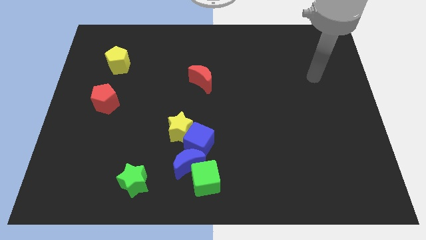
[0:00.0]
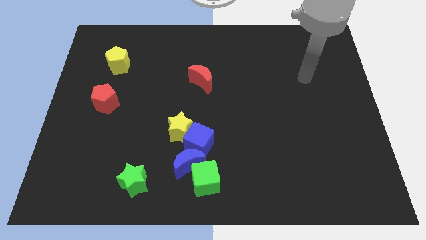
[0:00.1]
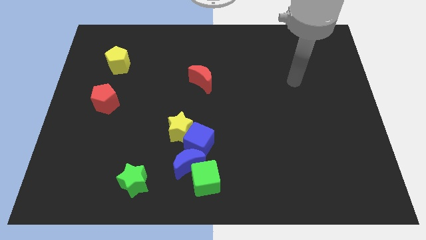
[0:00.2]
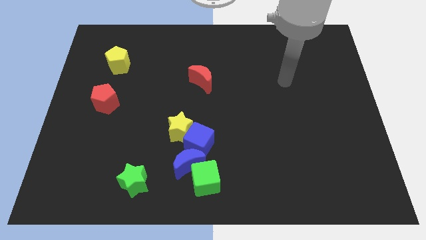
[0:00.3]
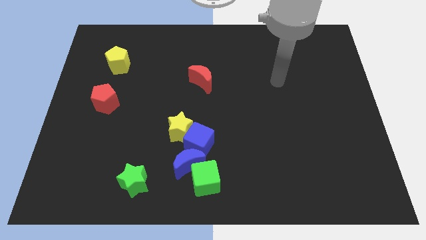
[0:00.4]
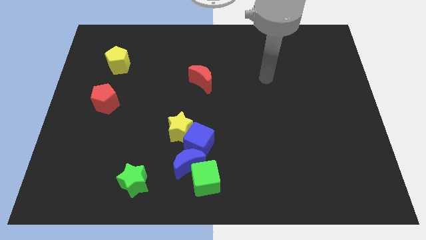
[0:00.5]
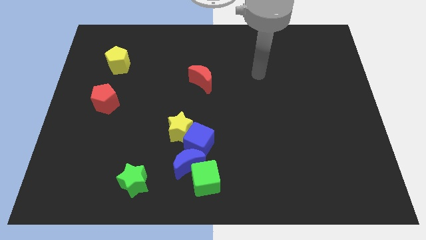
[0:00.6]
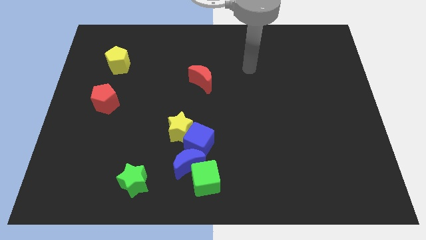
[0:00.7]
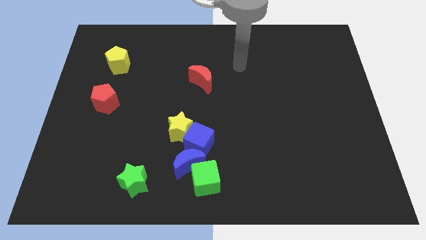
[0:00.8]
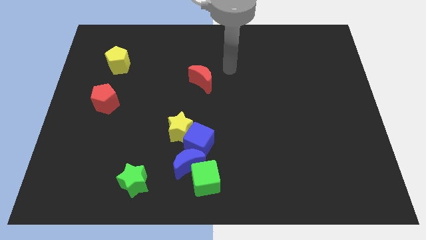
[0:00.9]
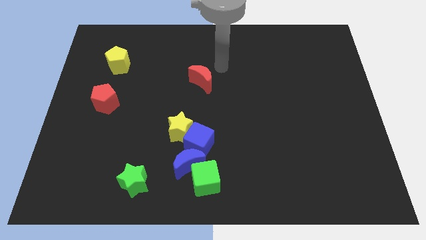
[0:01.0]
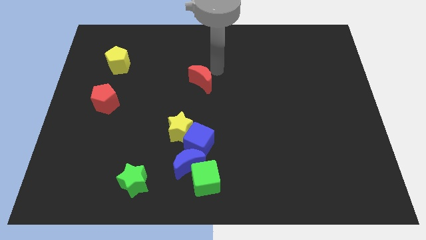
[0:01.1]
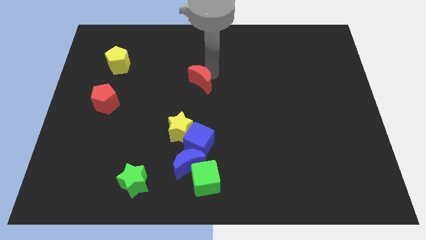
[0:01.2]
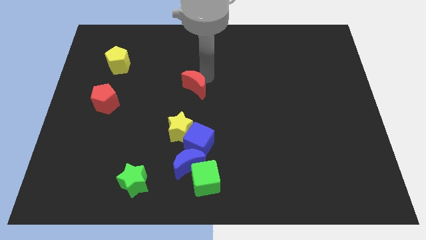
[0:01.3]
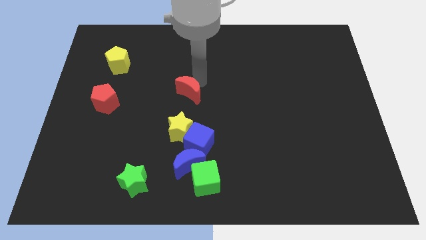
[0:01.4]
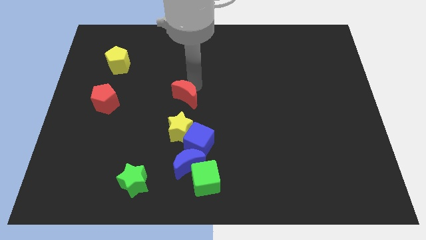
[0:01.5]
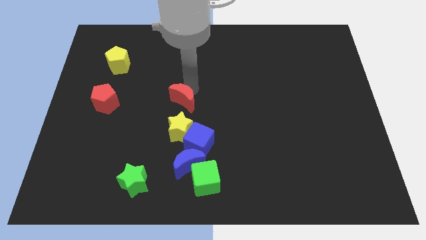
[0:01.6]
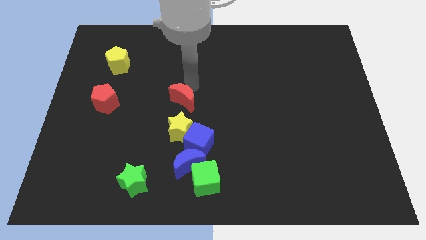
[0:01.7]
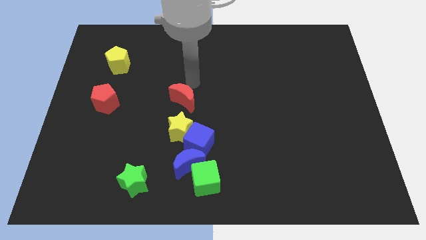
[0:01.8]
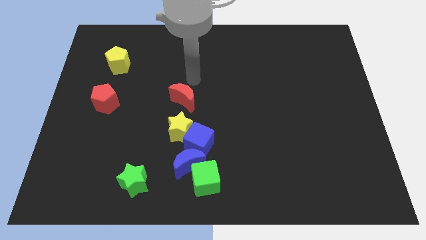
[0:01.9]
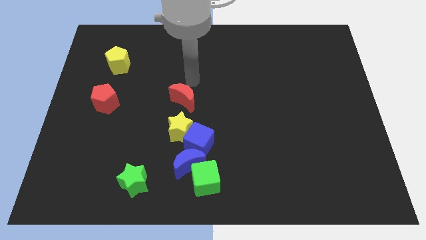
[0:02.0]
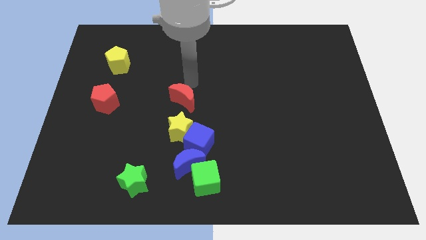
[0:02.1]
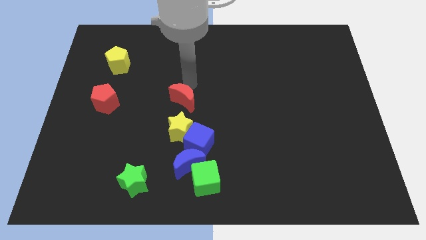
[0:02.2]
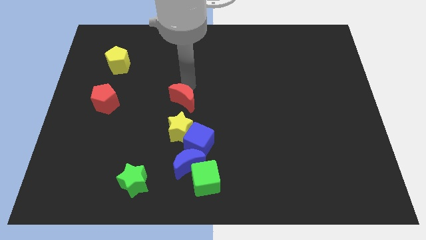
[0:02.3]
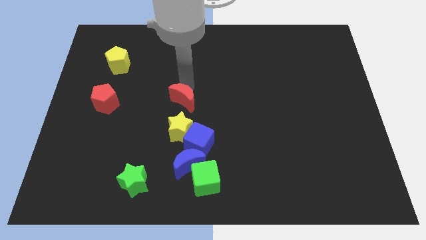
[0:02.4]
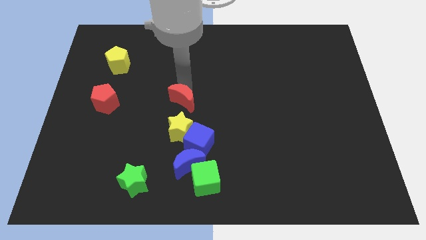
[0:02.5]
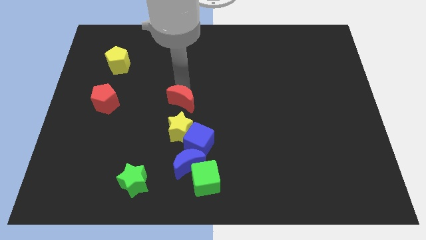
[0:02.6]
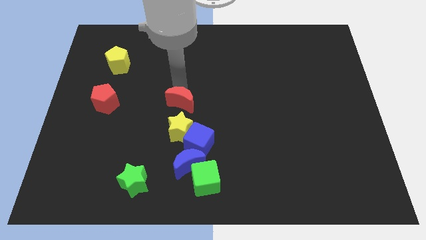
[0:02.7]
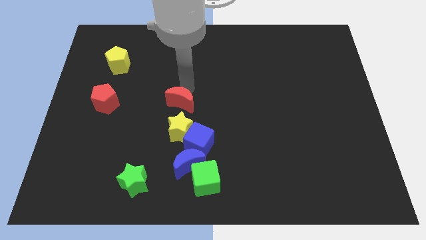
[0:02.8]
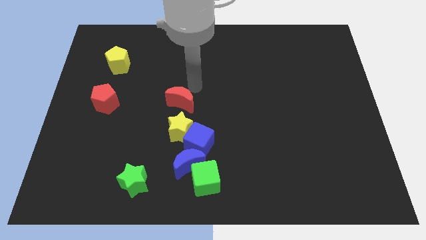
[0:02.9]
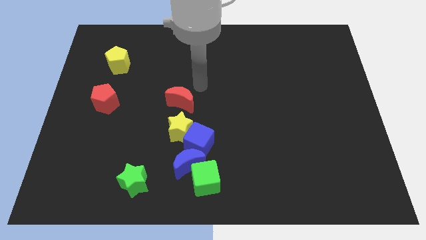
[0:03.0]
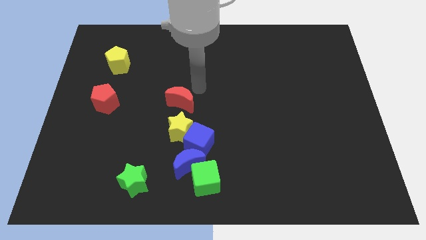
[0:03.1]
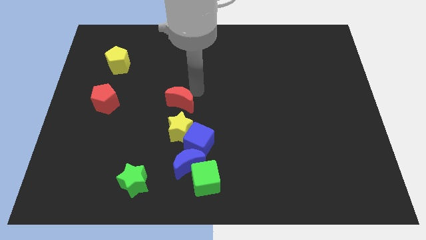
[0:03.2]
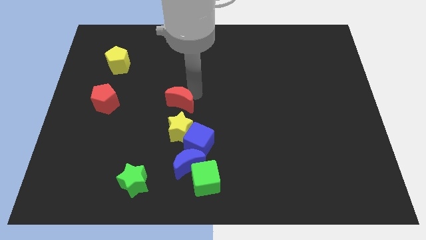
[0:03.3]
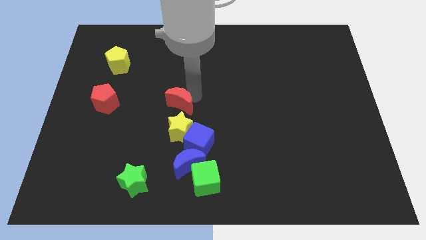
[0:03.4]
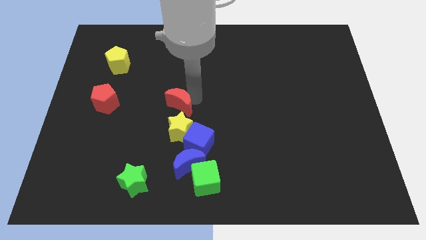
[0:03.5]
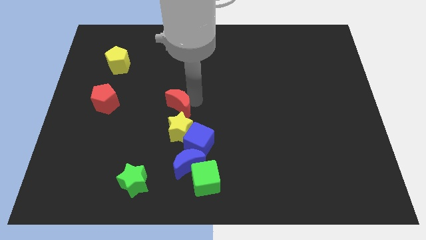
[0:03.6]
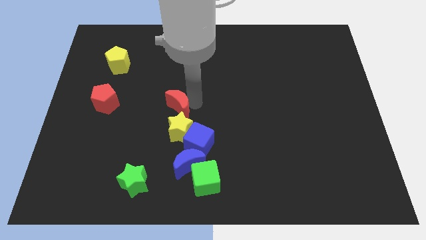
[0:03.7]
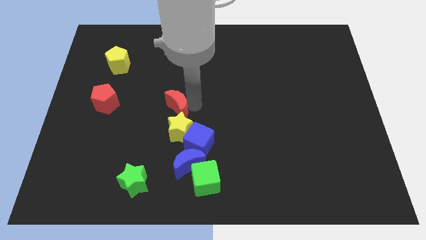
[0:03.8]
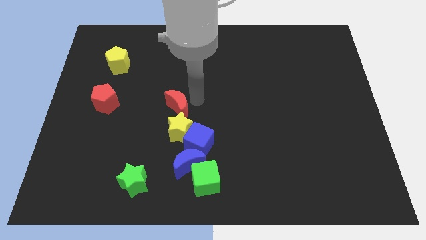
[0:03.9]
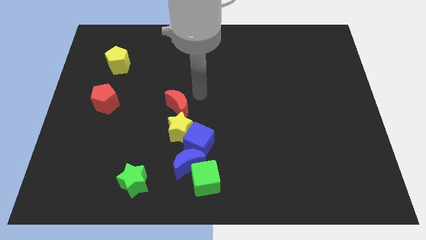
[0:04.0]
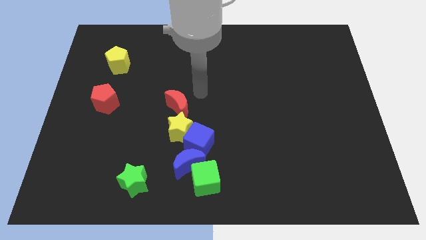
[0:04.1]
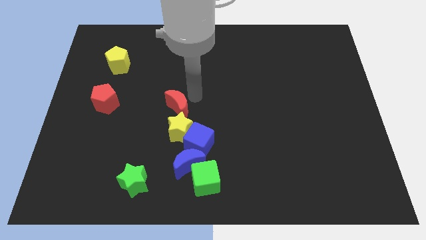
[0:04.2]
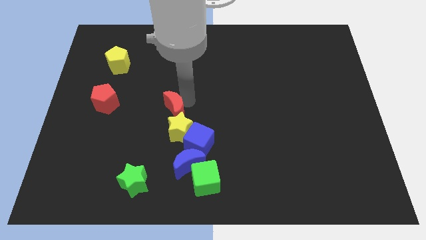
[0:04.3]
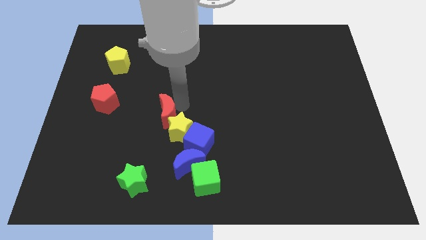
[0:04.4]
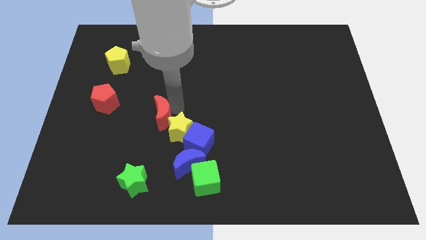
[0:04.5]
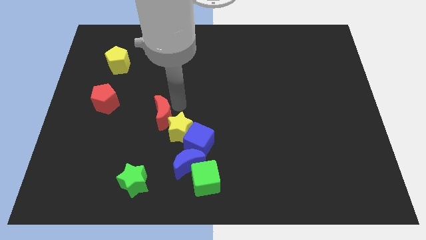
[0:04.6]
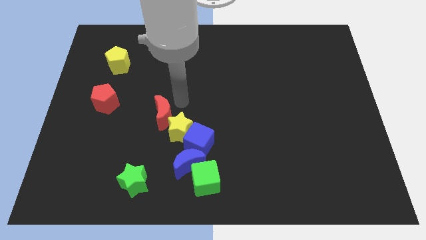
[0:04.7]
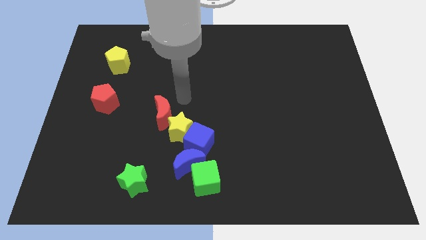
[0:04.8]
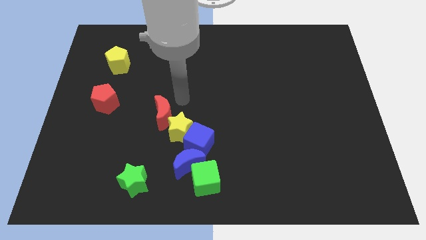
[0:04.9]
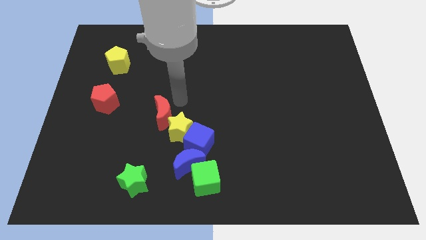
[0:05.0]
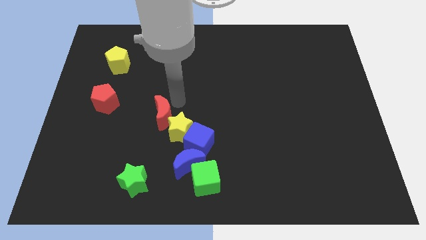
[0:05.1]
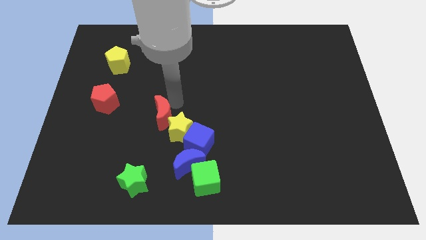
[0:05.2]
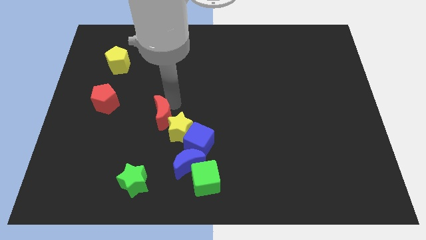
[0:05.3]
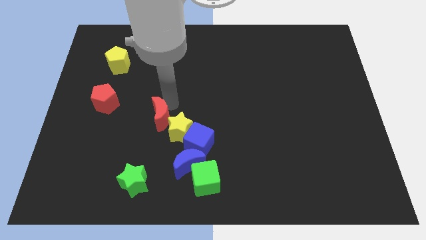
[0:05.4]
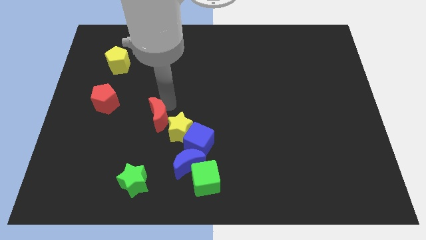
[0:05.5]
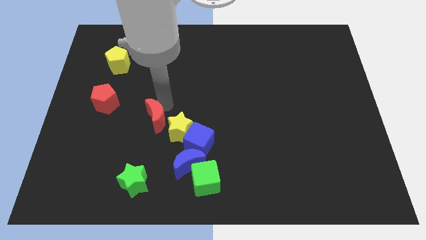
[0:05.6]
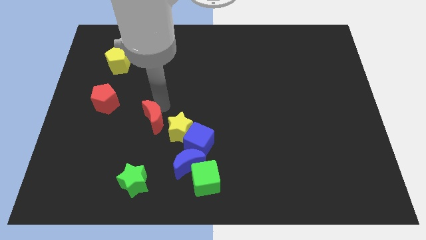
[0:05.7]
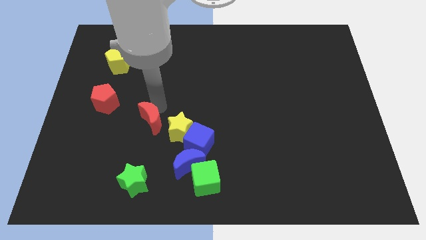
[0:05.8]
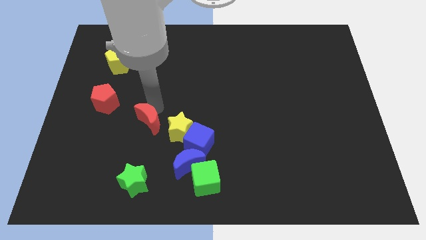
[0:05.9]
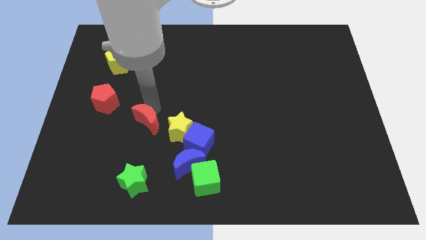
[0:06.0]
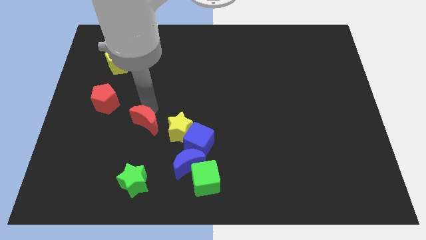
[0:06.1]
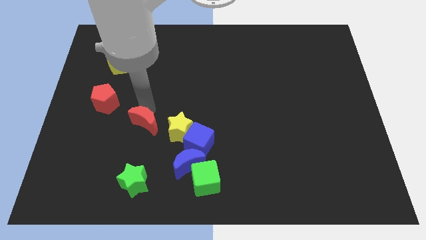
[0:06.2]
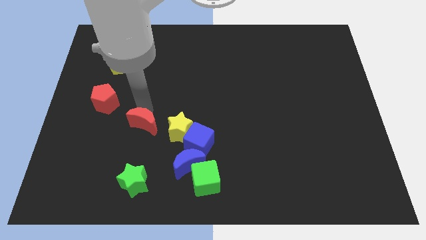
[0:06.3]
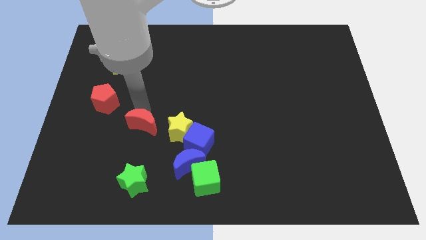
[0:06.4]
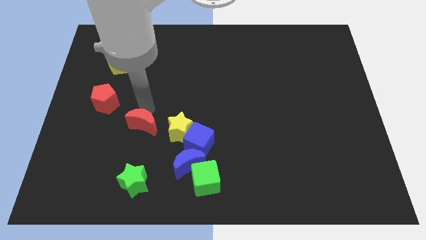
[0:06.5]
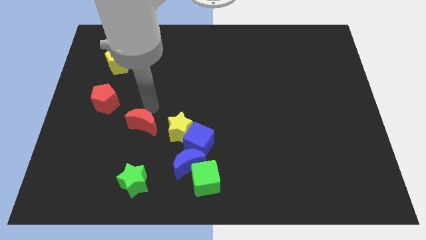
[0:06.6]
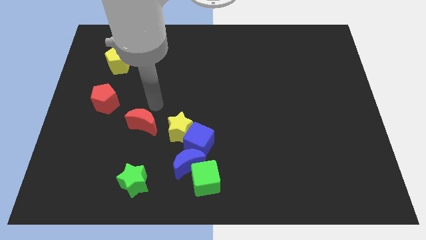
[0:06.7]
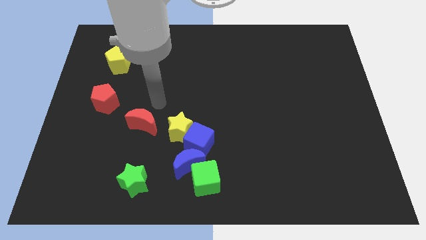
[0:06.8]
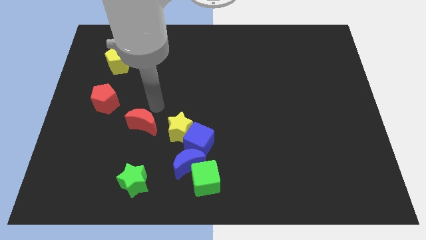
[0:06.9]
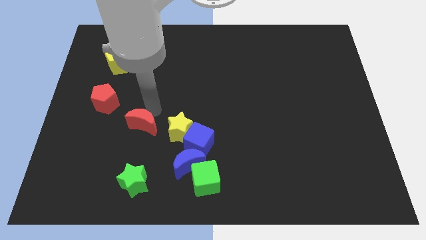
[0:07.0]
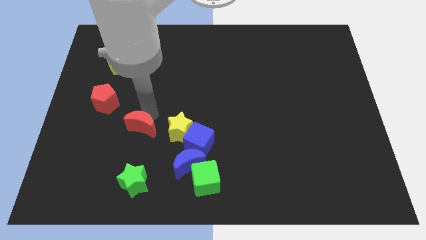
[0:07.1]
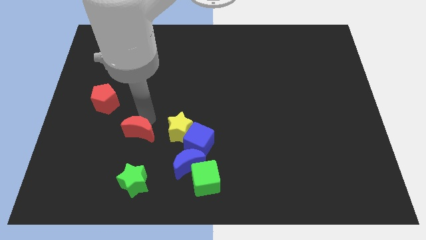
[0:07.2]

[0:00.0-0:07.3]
move the red moon down and to the left

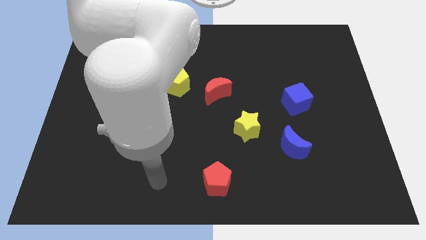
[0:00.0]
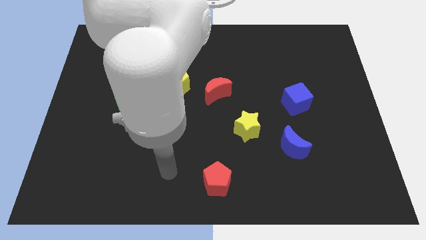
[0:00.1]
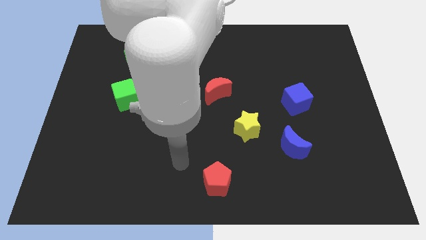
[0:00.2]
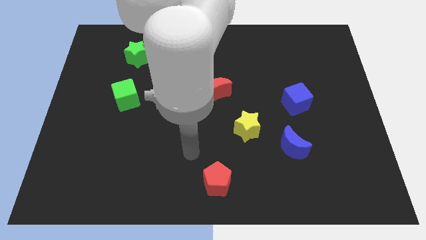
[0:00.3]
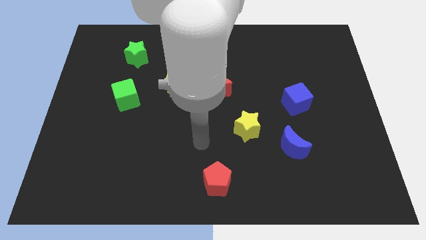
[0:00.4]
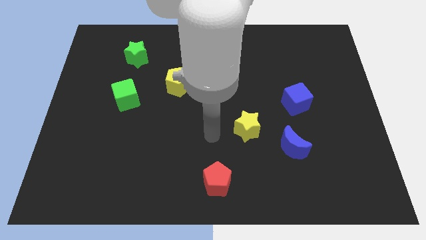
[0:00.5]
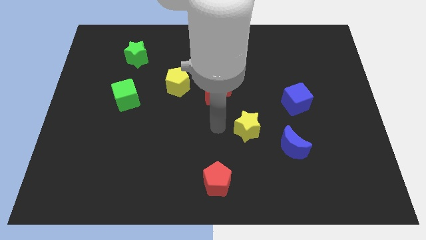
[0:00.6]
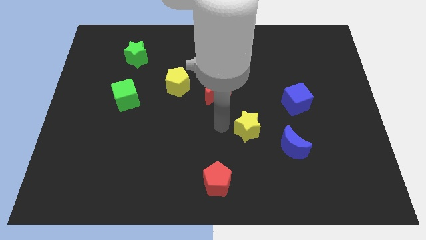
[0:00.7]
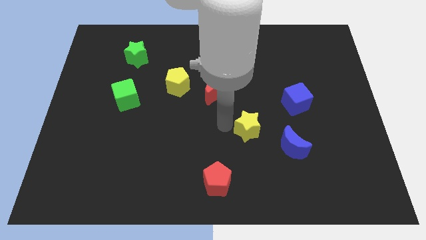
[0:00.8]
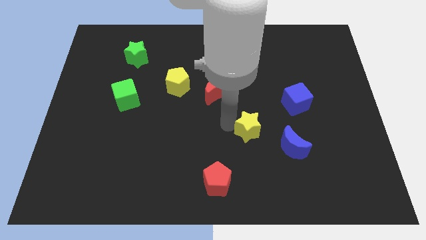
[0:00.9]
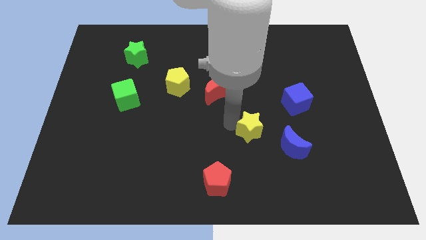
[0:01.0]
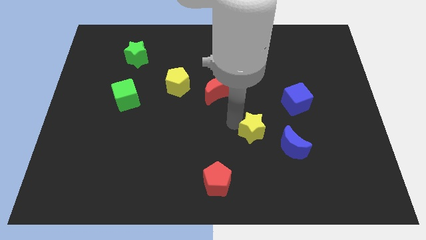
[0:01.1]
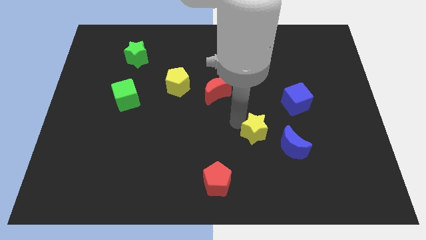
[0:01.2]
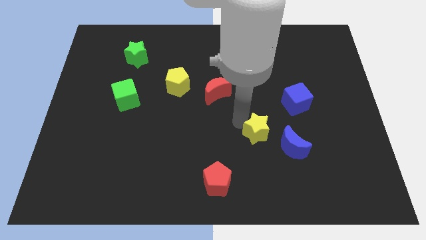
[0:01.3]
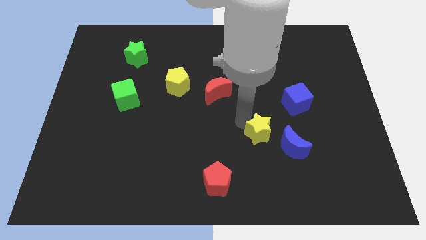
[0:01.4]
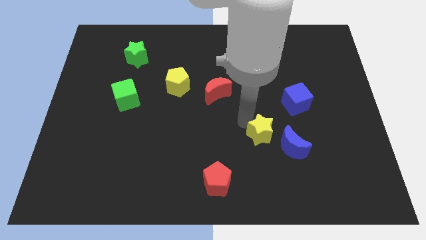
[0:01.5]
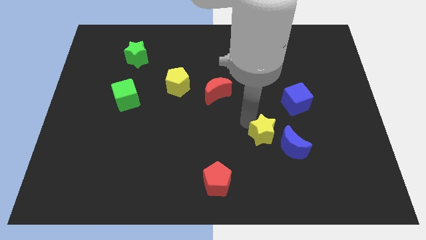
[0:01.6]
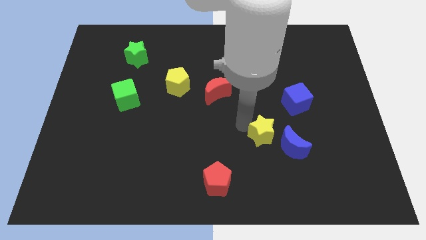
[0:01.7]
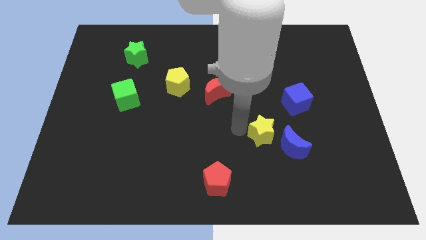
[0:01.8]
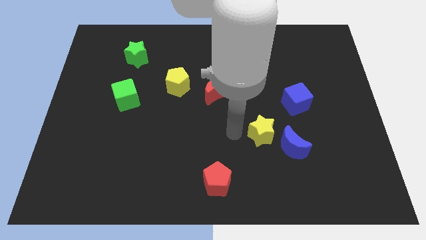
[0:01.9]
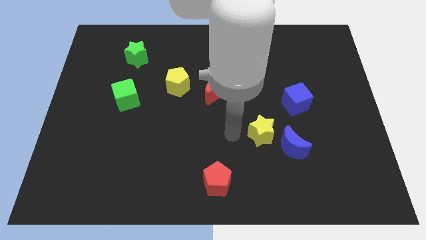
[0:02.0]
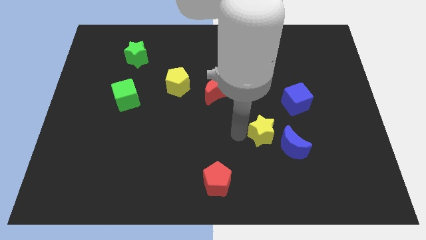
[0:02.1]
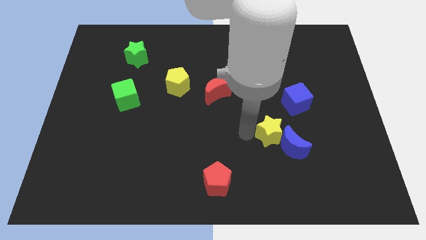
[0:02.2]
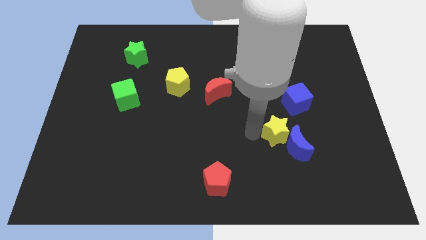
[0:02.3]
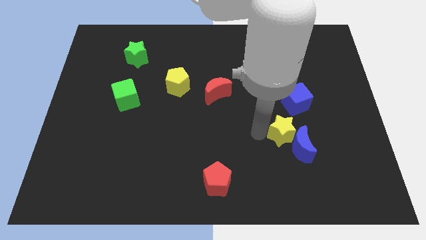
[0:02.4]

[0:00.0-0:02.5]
slightly slide the yellow star to the right
